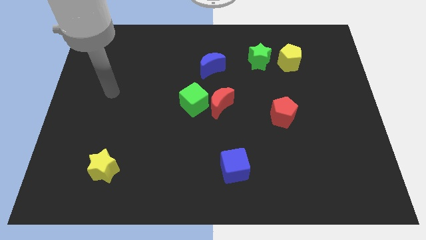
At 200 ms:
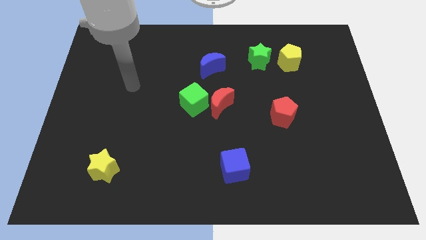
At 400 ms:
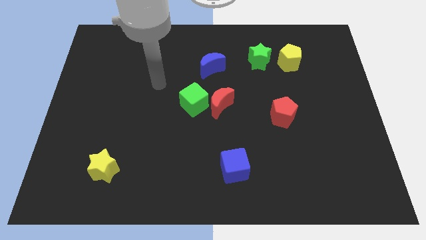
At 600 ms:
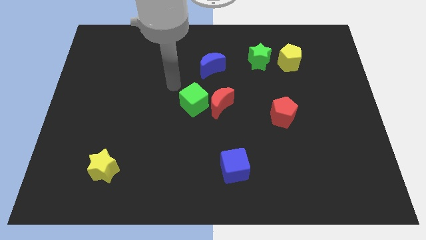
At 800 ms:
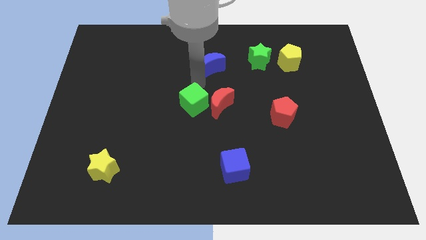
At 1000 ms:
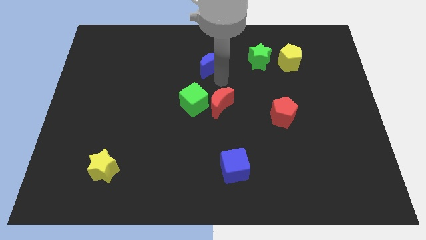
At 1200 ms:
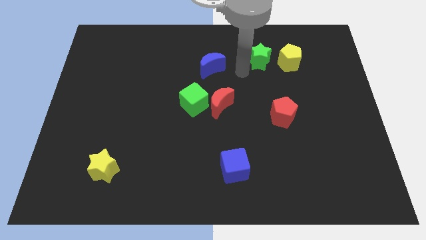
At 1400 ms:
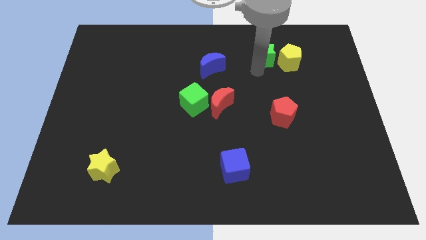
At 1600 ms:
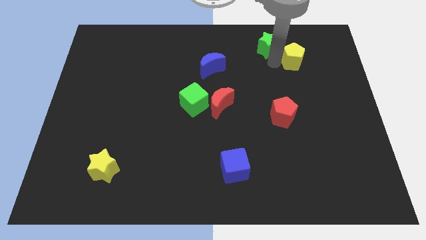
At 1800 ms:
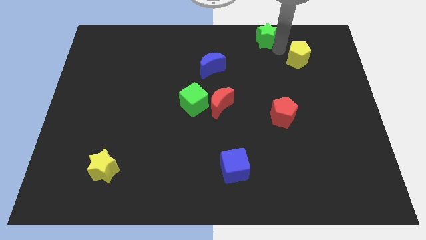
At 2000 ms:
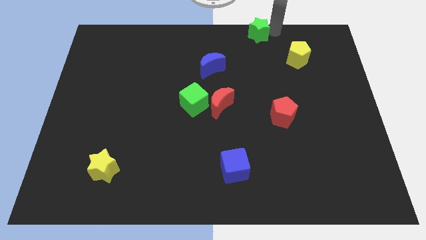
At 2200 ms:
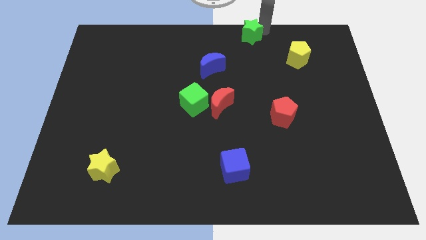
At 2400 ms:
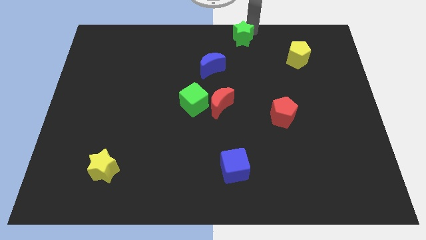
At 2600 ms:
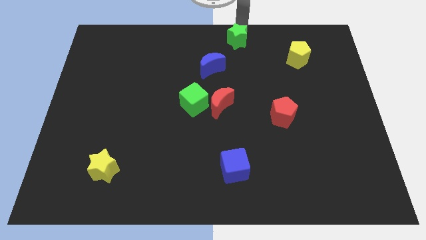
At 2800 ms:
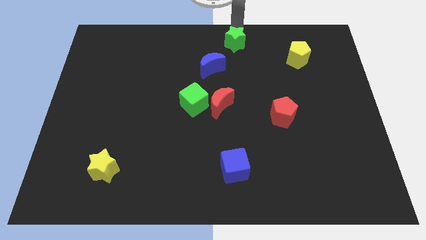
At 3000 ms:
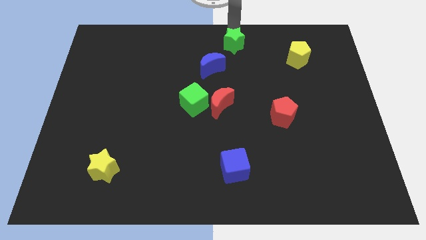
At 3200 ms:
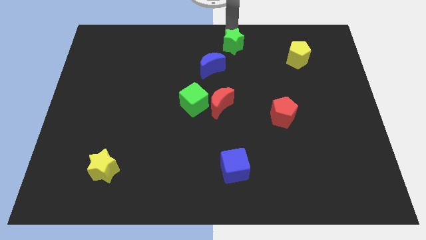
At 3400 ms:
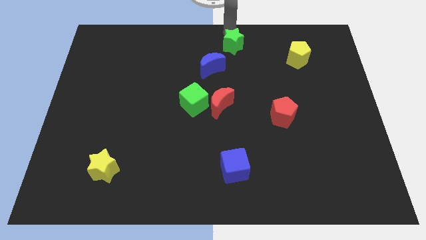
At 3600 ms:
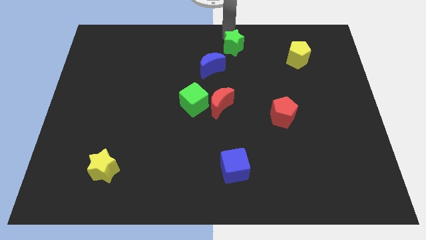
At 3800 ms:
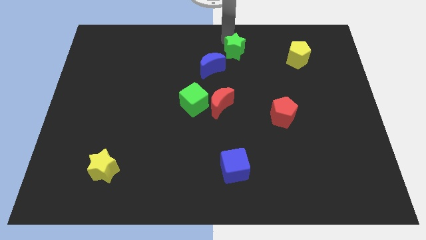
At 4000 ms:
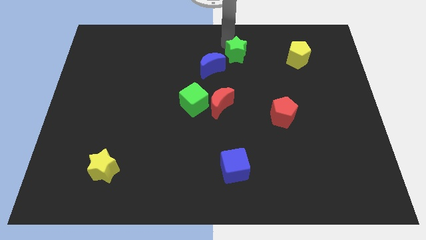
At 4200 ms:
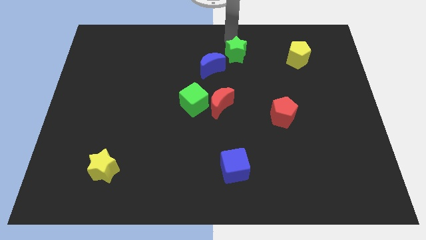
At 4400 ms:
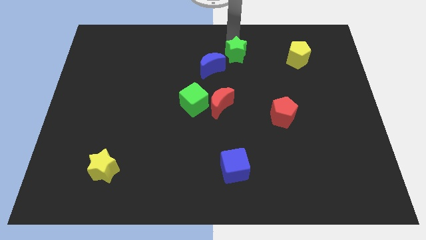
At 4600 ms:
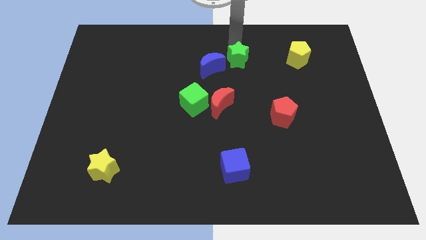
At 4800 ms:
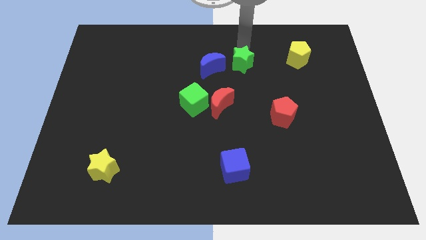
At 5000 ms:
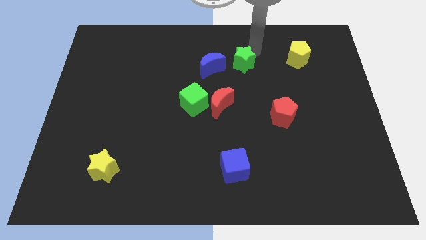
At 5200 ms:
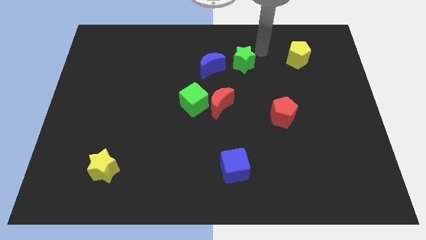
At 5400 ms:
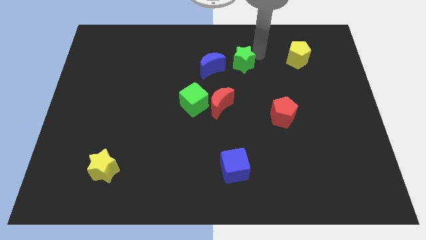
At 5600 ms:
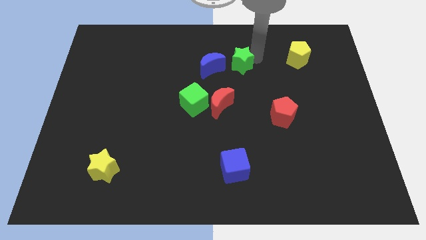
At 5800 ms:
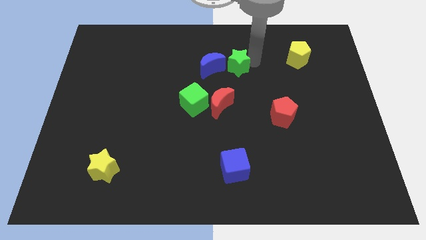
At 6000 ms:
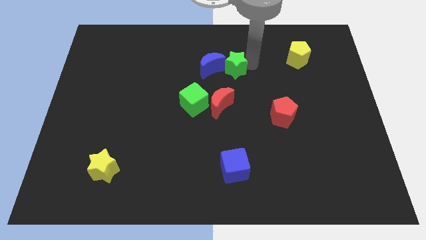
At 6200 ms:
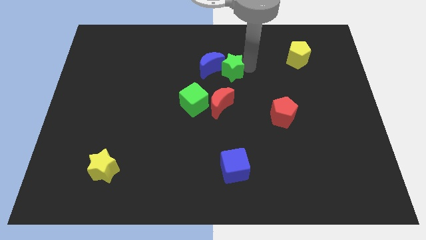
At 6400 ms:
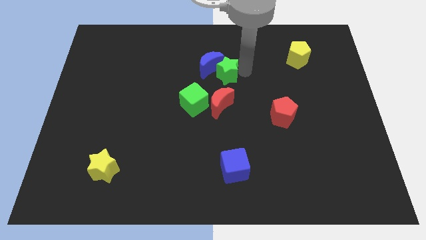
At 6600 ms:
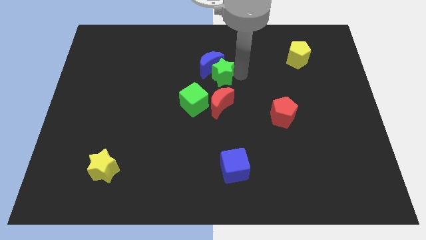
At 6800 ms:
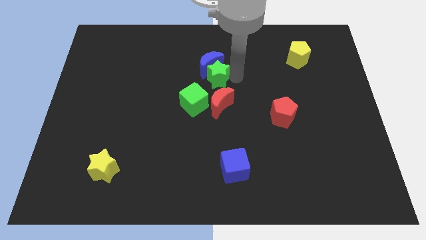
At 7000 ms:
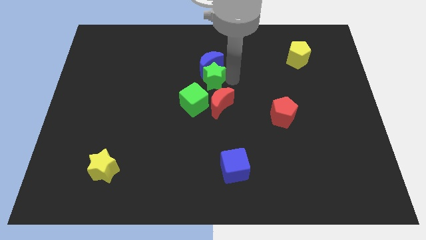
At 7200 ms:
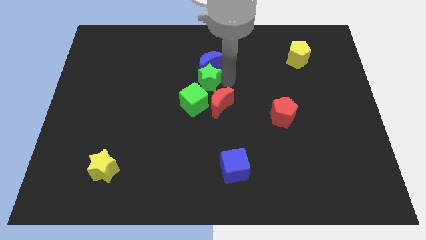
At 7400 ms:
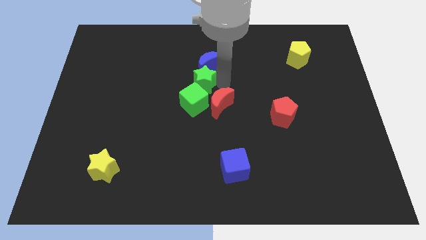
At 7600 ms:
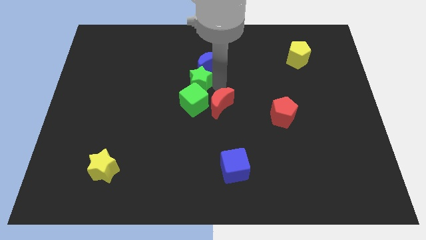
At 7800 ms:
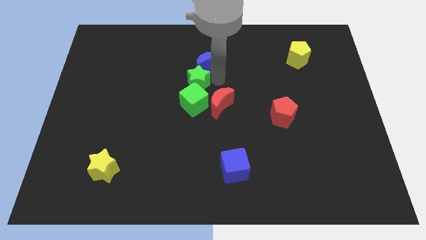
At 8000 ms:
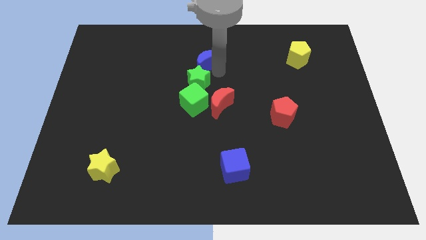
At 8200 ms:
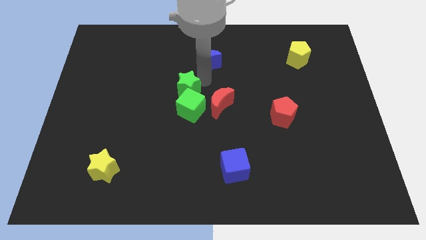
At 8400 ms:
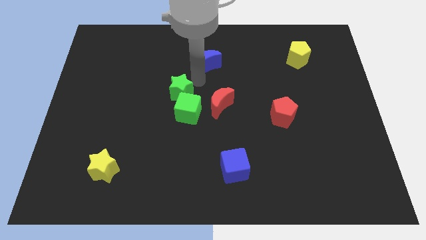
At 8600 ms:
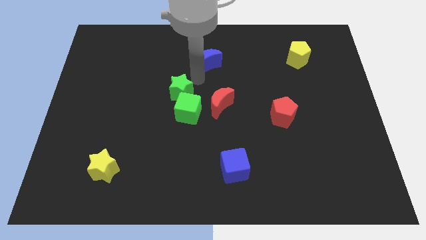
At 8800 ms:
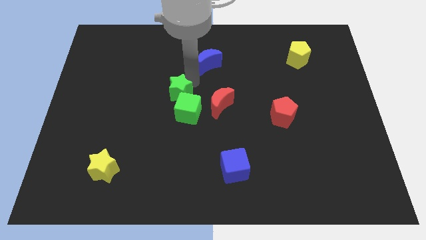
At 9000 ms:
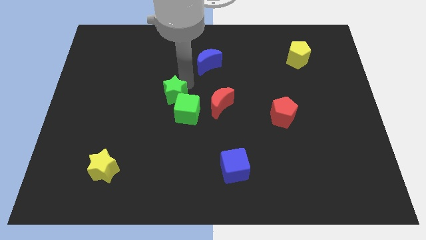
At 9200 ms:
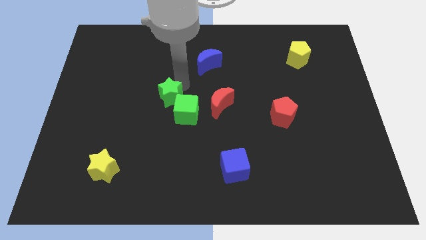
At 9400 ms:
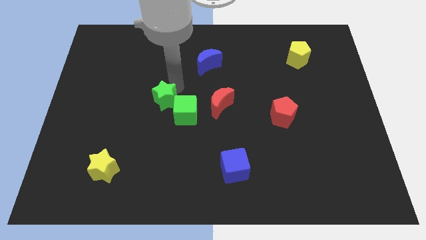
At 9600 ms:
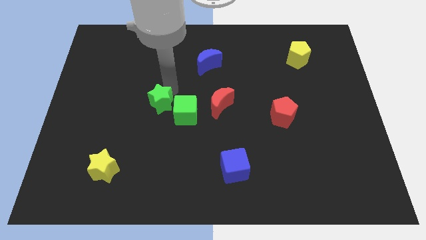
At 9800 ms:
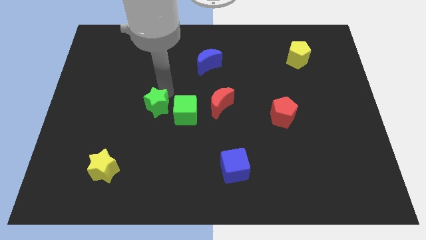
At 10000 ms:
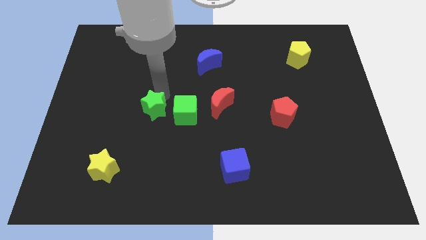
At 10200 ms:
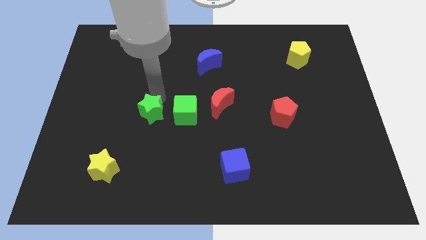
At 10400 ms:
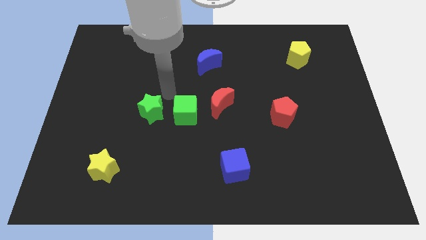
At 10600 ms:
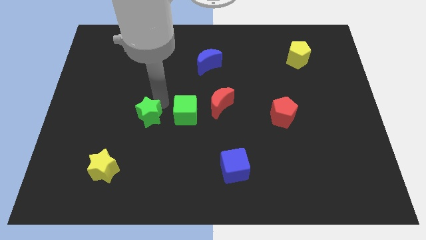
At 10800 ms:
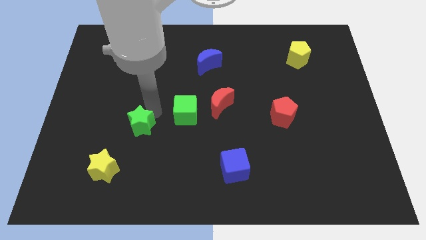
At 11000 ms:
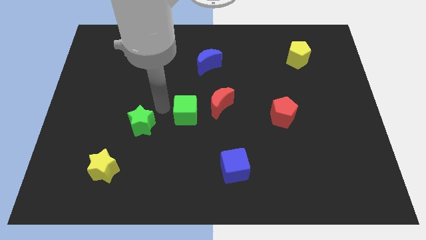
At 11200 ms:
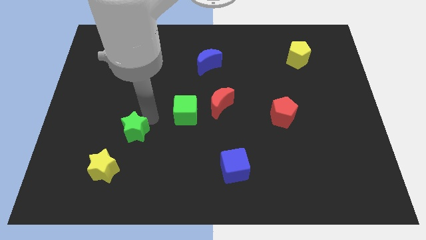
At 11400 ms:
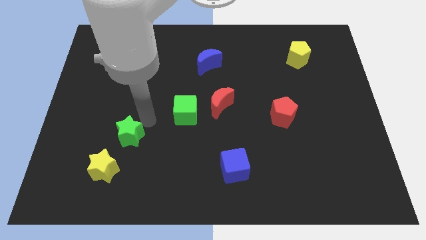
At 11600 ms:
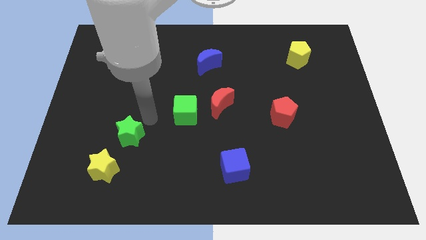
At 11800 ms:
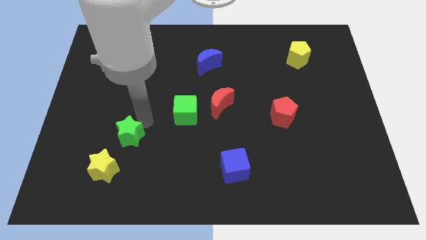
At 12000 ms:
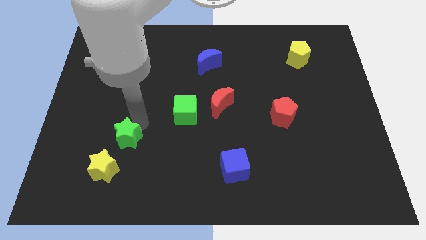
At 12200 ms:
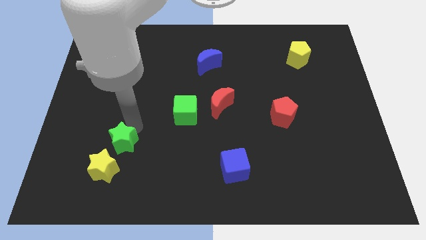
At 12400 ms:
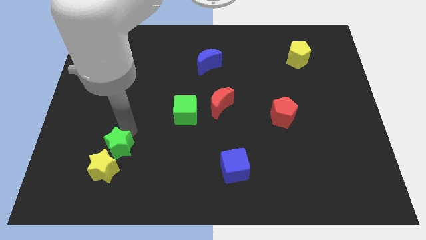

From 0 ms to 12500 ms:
push the green star to the yellow star

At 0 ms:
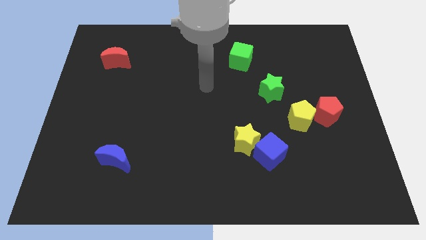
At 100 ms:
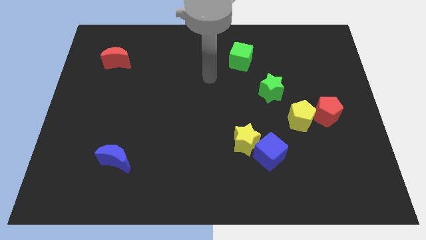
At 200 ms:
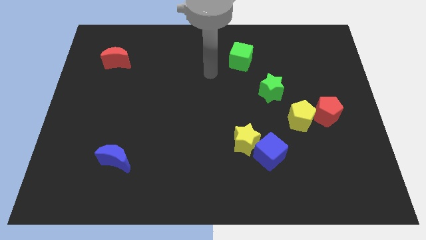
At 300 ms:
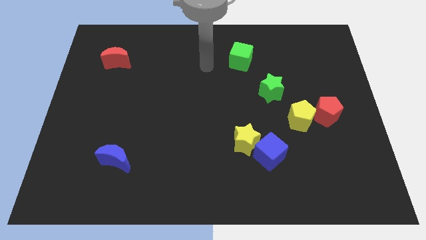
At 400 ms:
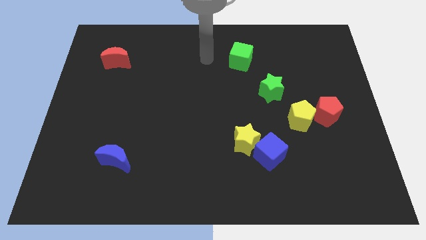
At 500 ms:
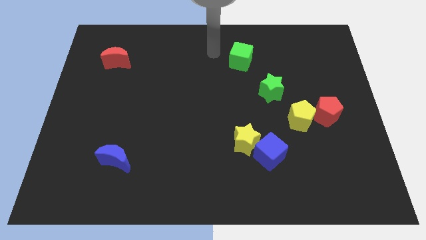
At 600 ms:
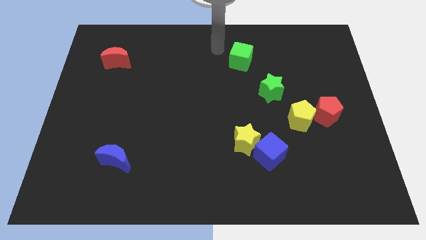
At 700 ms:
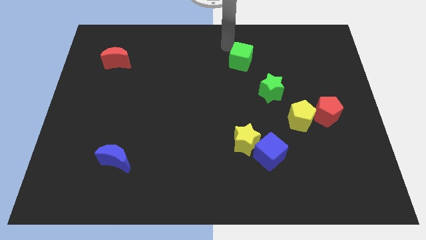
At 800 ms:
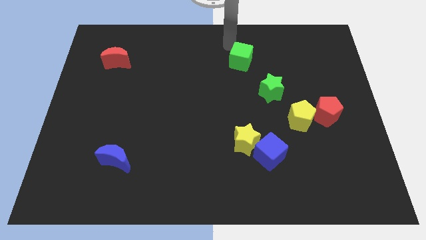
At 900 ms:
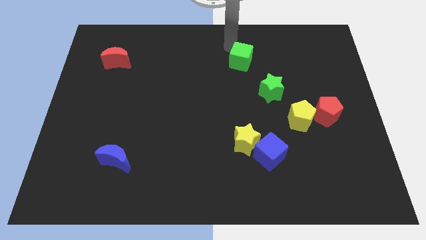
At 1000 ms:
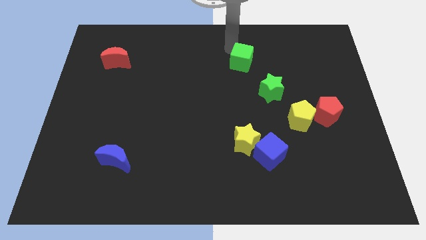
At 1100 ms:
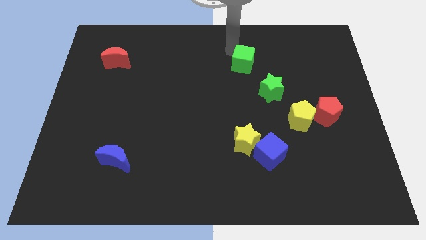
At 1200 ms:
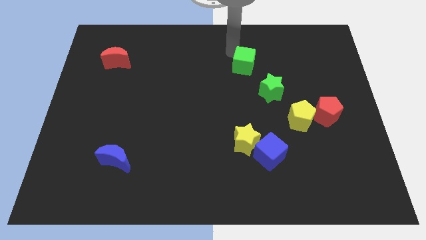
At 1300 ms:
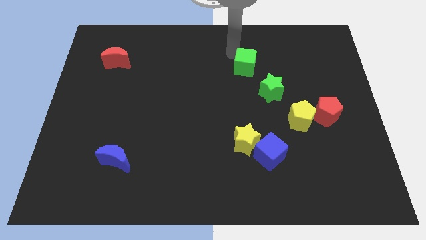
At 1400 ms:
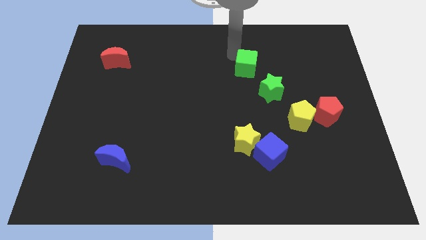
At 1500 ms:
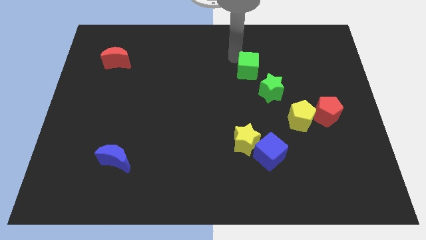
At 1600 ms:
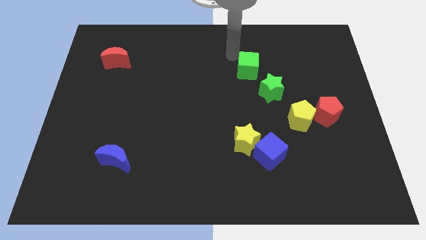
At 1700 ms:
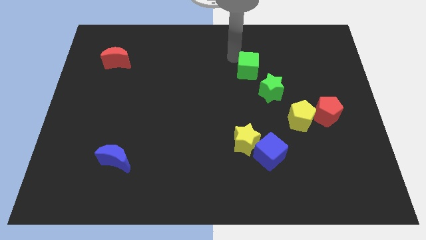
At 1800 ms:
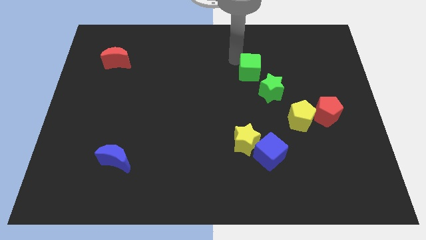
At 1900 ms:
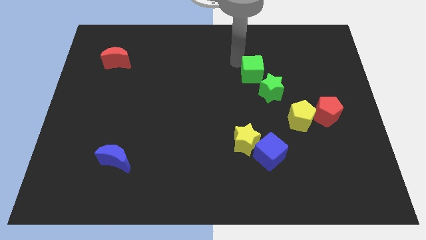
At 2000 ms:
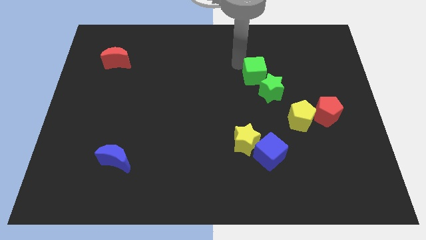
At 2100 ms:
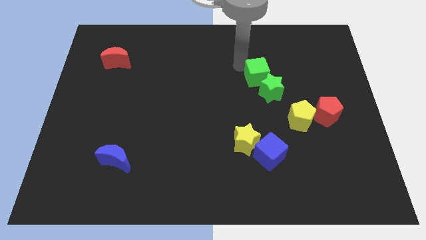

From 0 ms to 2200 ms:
put the green cube to the green star
